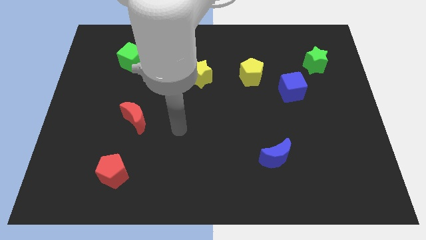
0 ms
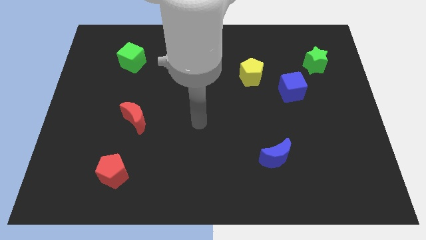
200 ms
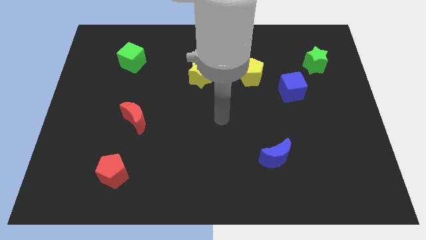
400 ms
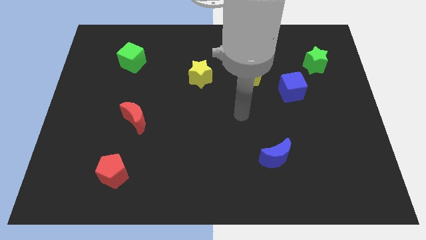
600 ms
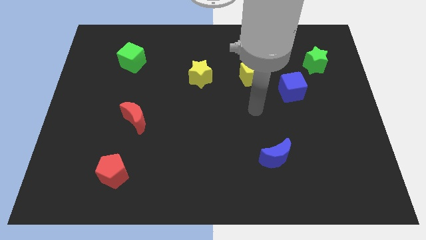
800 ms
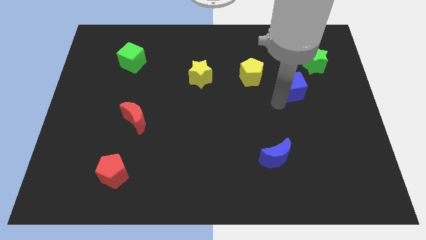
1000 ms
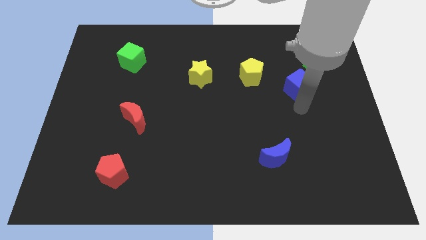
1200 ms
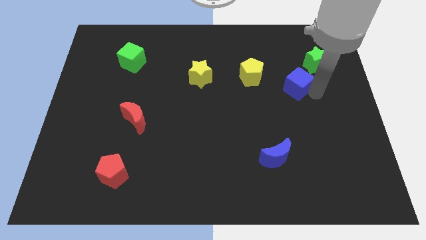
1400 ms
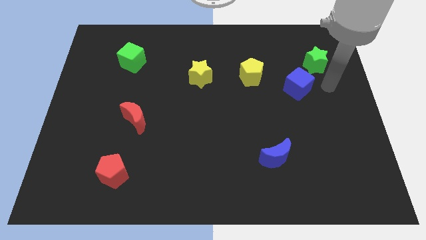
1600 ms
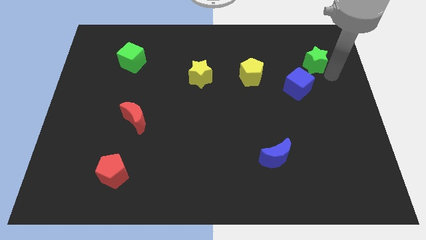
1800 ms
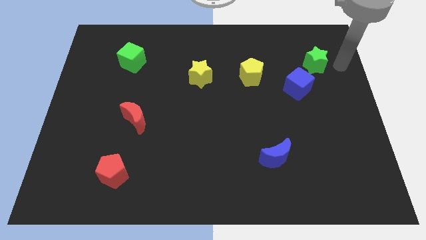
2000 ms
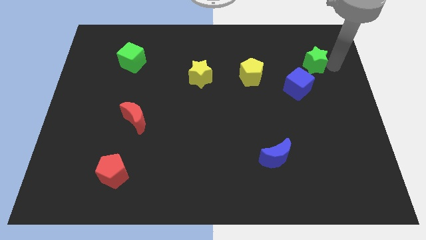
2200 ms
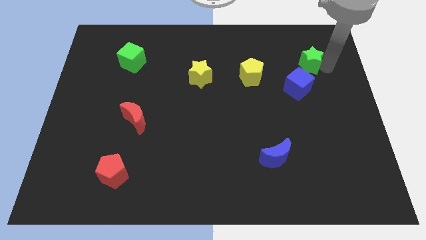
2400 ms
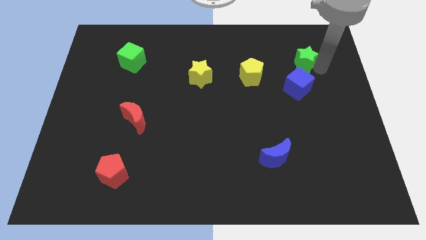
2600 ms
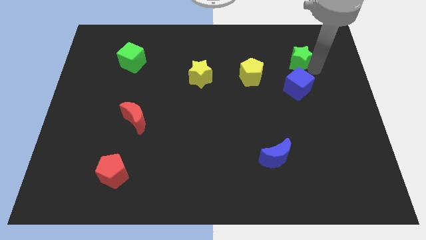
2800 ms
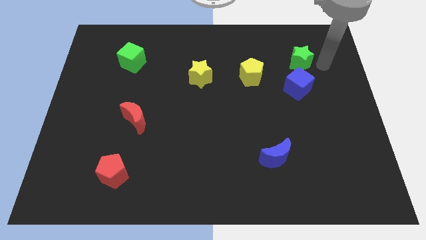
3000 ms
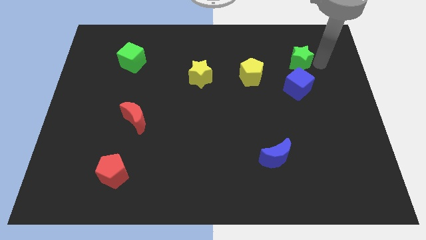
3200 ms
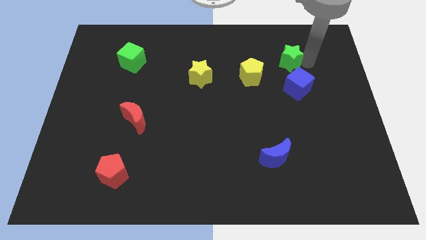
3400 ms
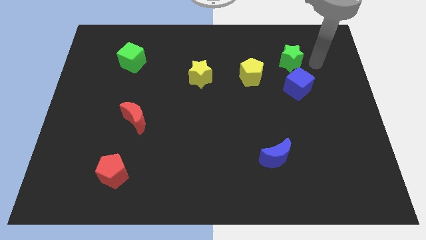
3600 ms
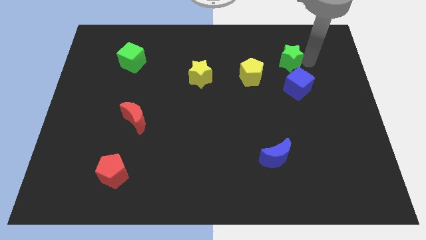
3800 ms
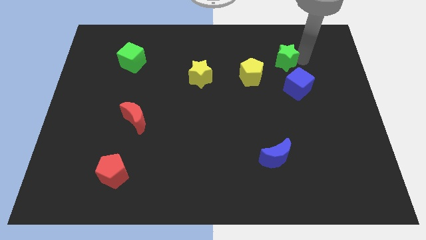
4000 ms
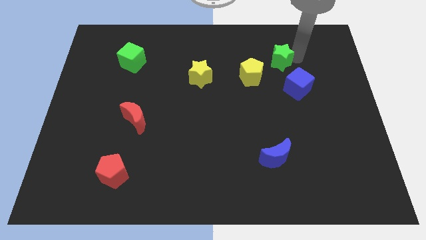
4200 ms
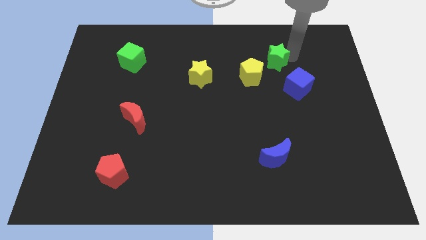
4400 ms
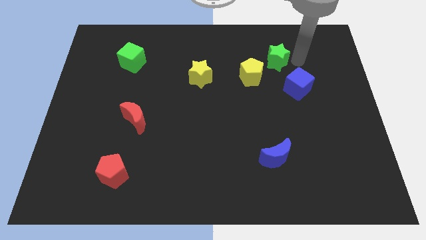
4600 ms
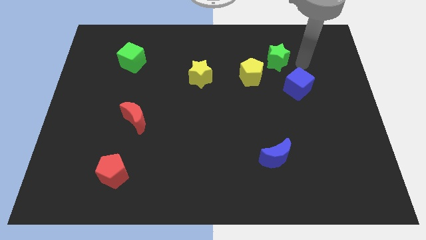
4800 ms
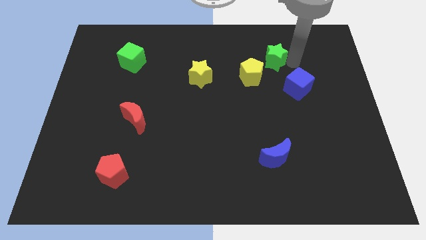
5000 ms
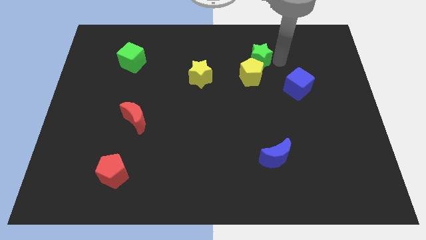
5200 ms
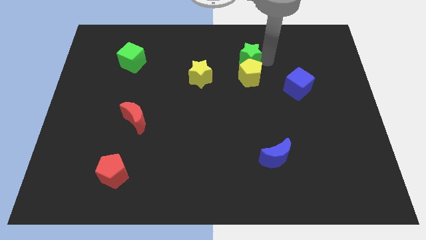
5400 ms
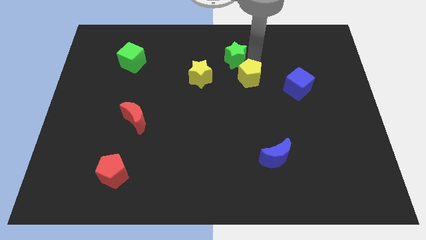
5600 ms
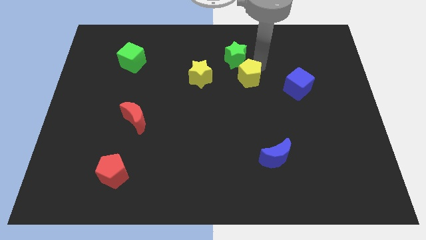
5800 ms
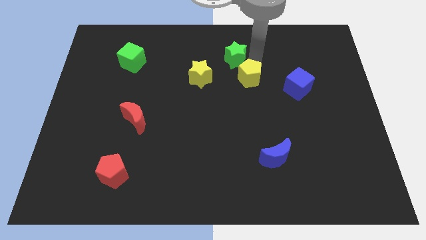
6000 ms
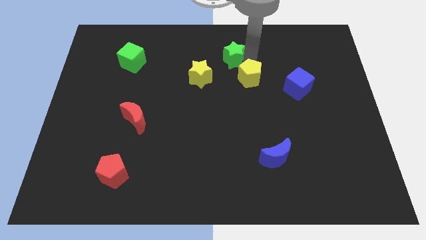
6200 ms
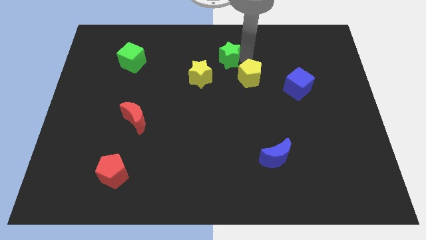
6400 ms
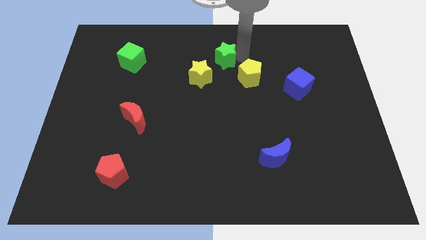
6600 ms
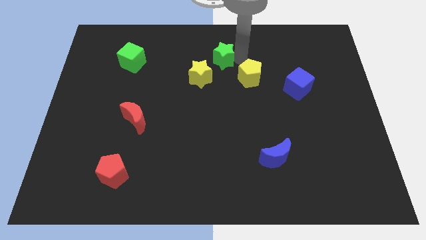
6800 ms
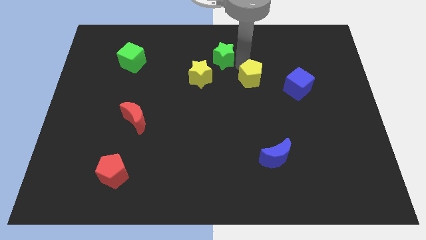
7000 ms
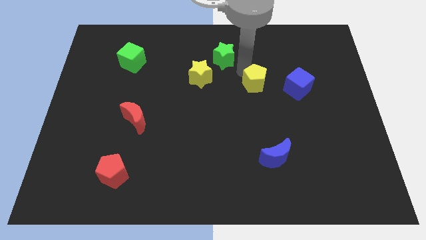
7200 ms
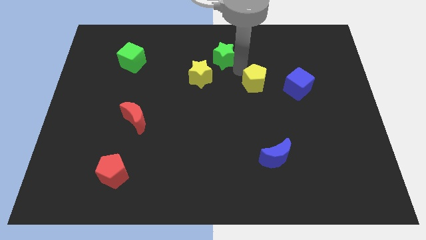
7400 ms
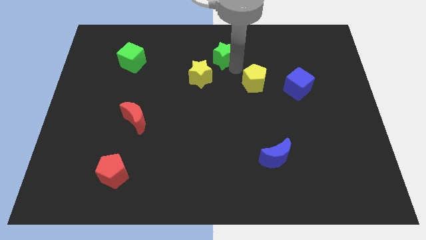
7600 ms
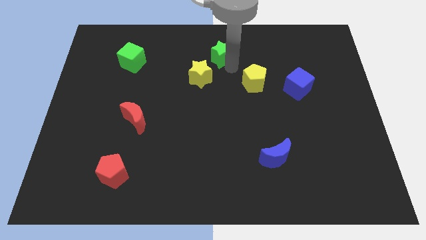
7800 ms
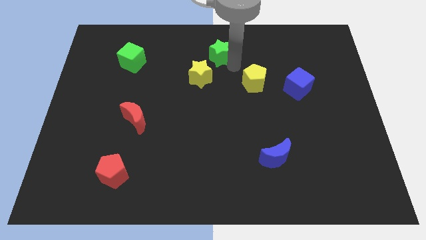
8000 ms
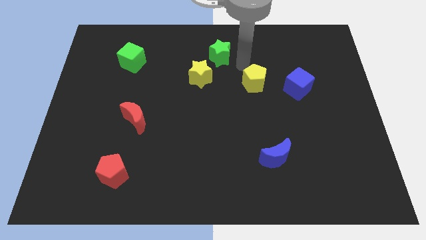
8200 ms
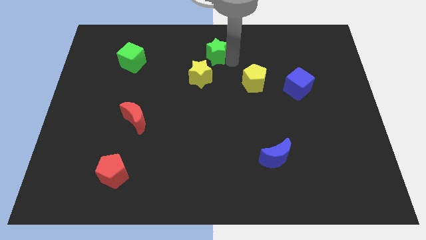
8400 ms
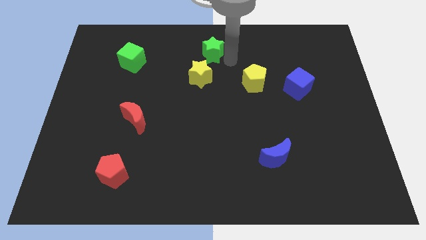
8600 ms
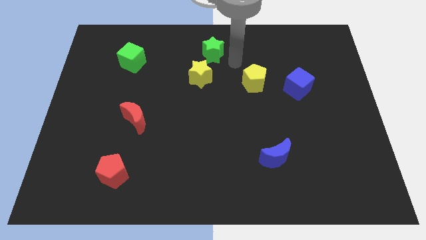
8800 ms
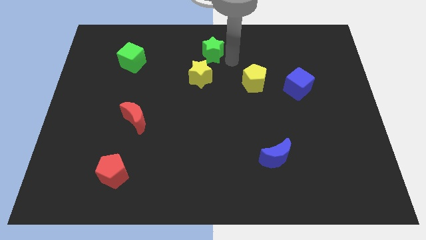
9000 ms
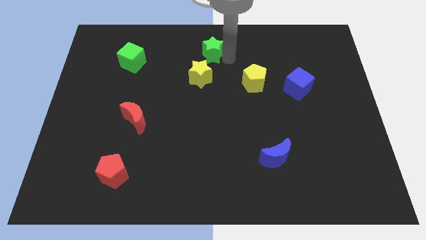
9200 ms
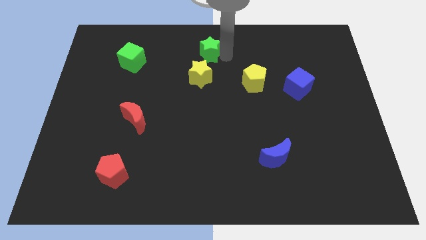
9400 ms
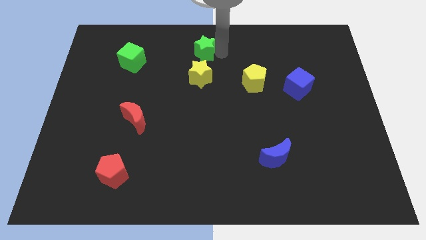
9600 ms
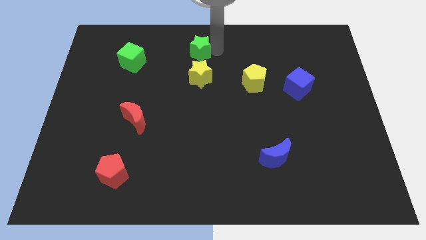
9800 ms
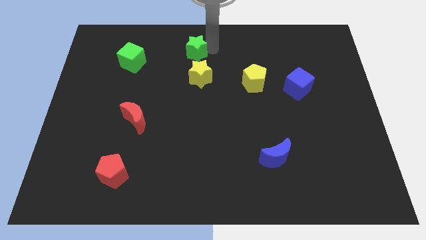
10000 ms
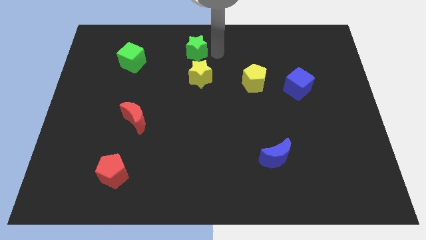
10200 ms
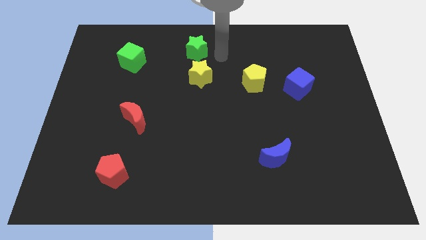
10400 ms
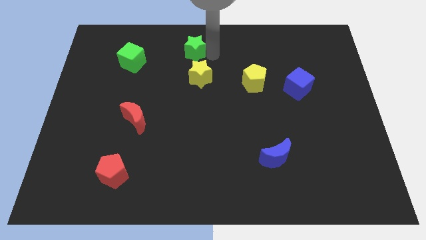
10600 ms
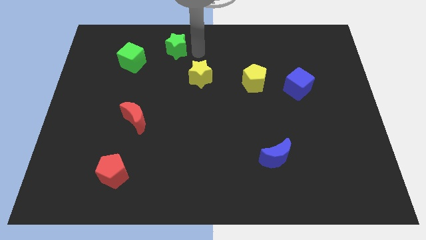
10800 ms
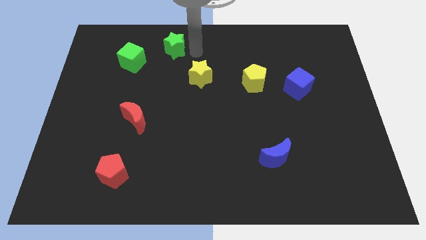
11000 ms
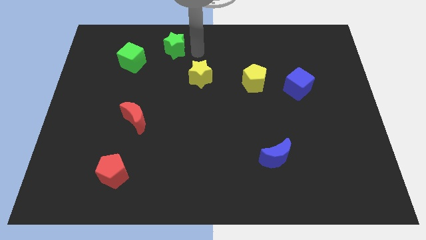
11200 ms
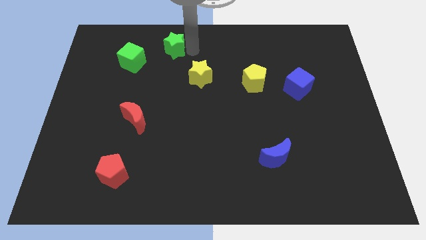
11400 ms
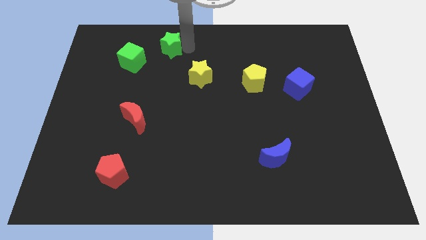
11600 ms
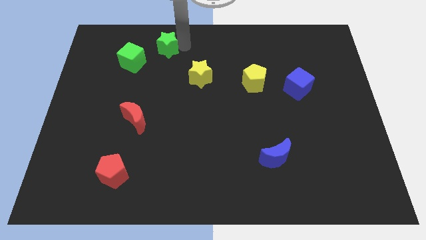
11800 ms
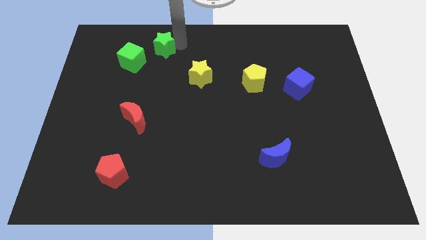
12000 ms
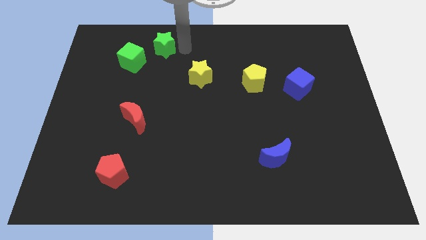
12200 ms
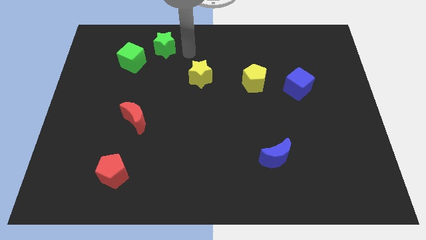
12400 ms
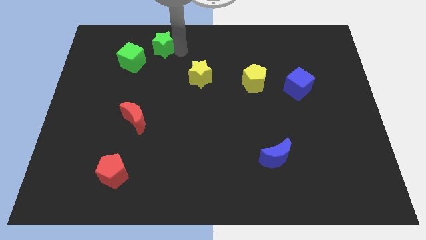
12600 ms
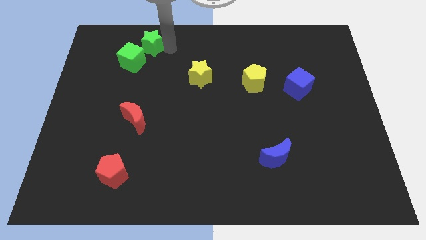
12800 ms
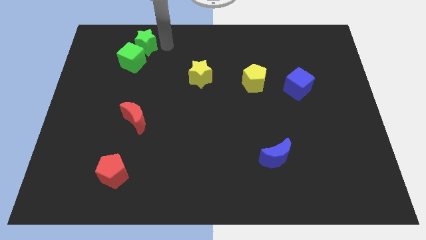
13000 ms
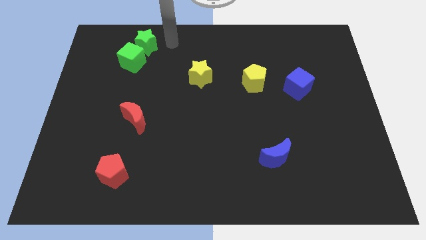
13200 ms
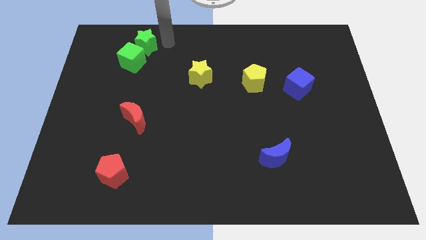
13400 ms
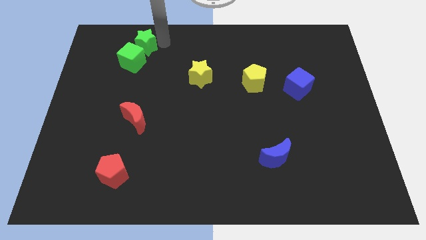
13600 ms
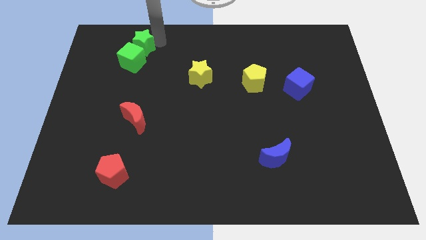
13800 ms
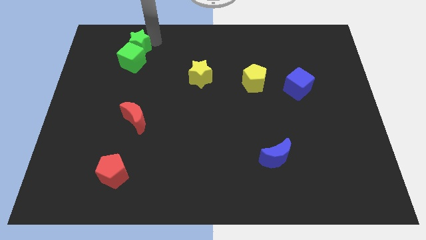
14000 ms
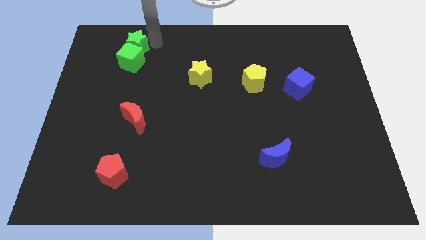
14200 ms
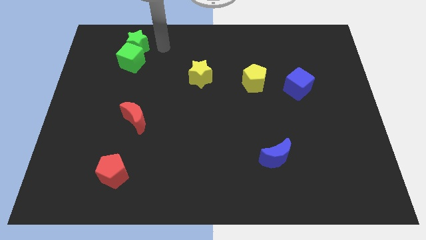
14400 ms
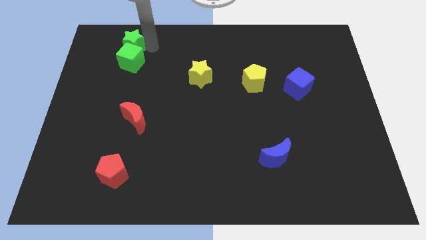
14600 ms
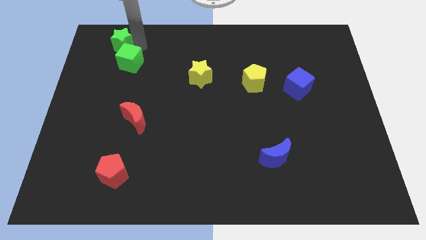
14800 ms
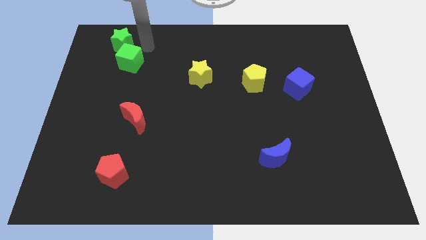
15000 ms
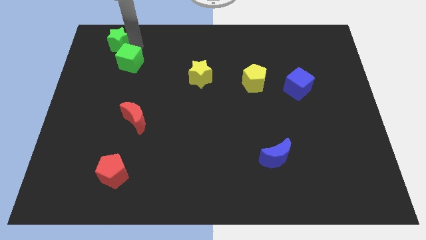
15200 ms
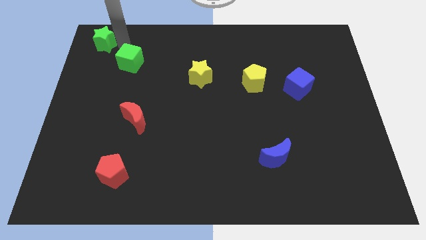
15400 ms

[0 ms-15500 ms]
put the green star to the top left corner
